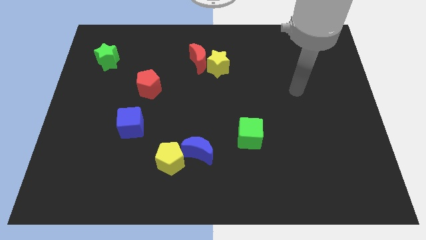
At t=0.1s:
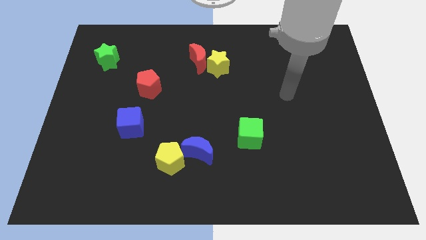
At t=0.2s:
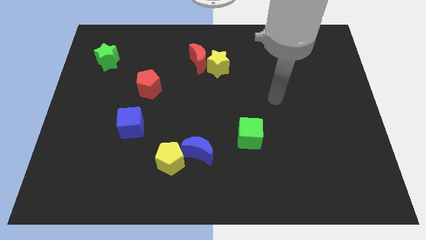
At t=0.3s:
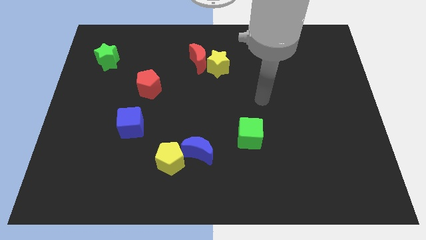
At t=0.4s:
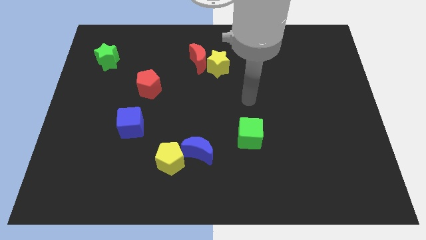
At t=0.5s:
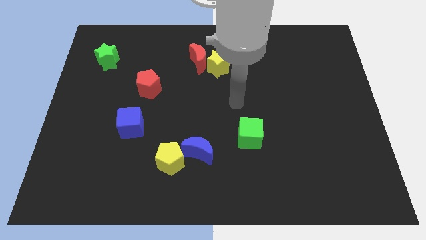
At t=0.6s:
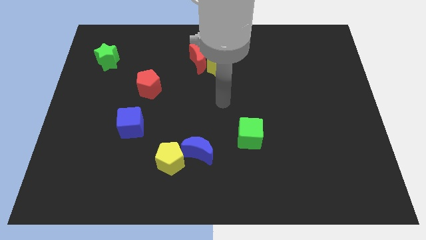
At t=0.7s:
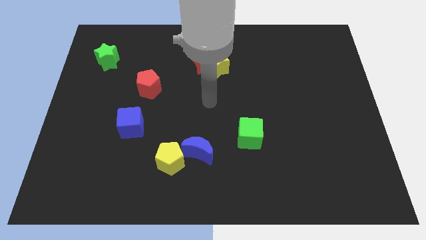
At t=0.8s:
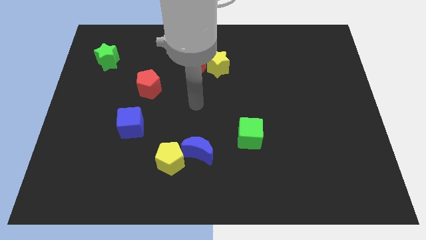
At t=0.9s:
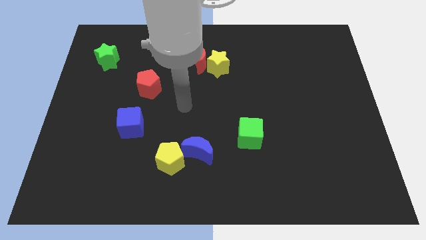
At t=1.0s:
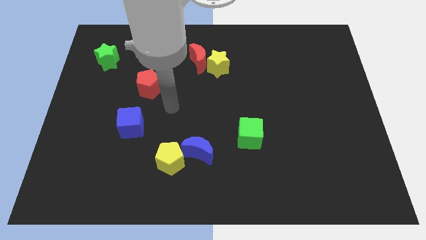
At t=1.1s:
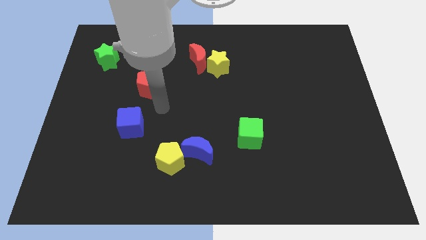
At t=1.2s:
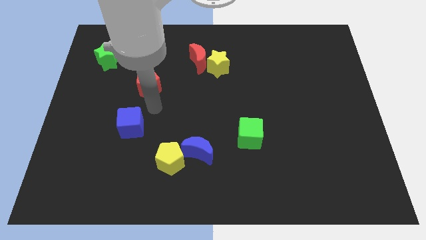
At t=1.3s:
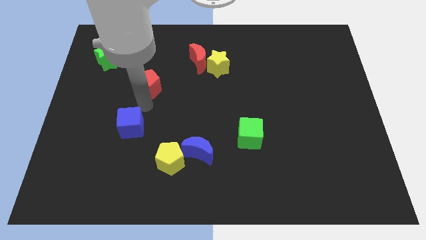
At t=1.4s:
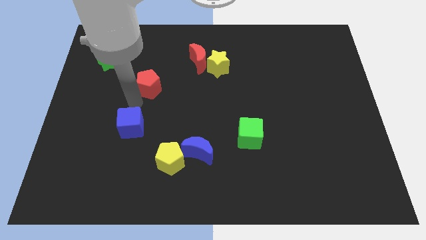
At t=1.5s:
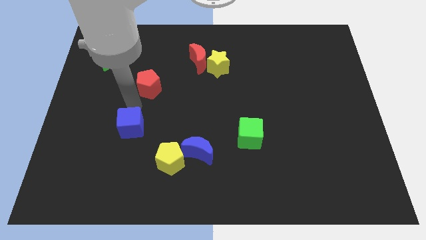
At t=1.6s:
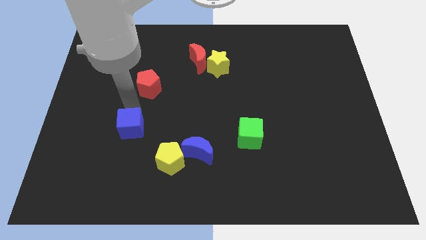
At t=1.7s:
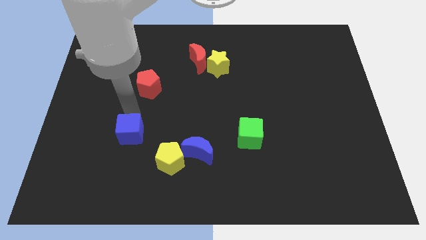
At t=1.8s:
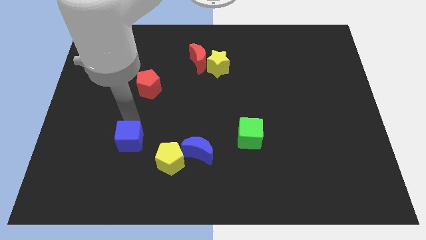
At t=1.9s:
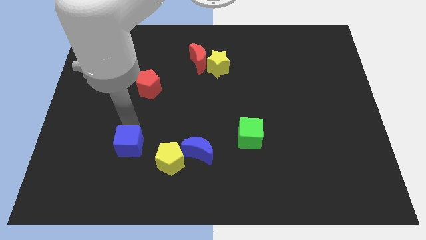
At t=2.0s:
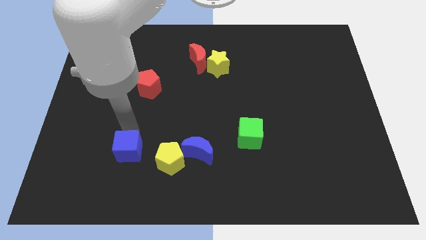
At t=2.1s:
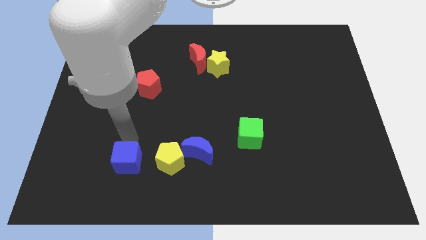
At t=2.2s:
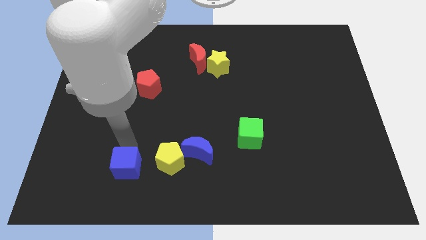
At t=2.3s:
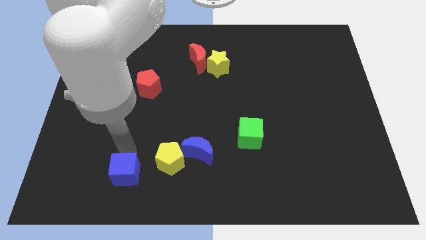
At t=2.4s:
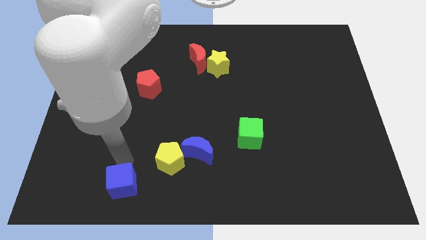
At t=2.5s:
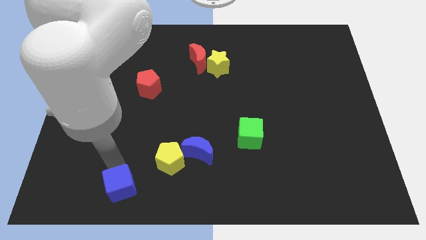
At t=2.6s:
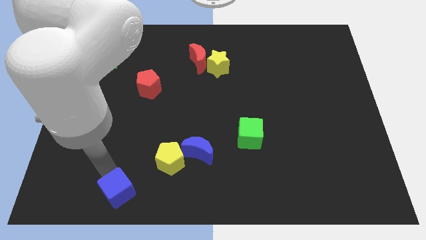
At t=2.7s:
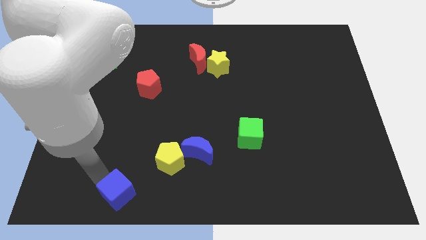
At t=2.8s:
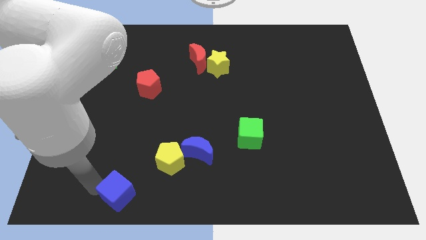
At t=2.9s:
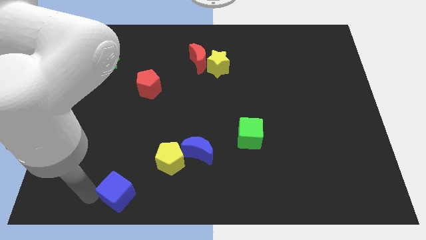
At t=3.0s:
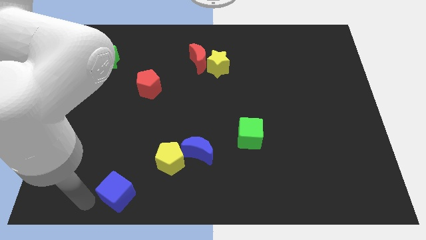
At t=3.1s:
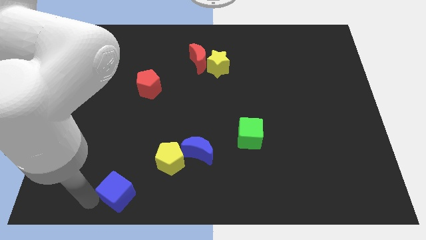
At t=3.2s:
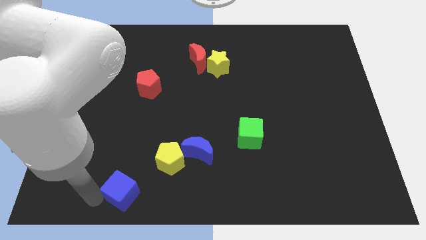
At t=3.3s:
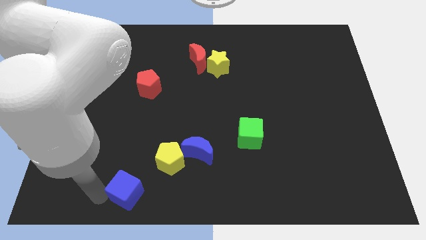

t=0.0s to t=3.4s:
slide the blue cube downwards and then to the right a little

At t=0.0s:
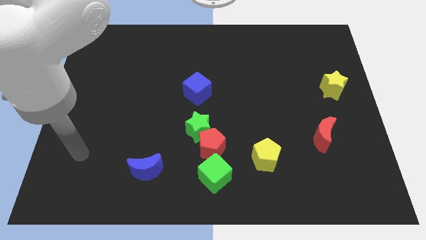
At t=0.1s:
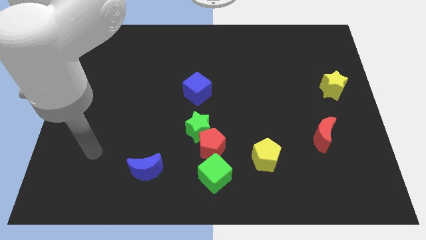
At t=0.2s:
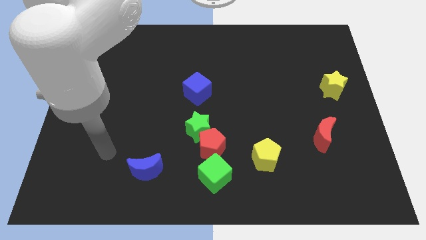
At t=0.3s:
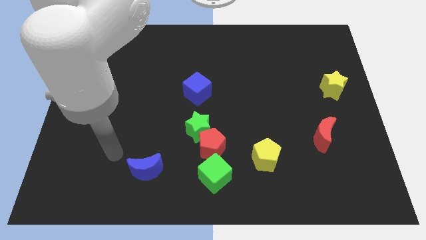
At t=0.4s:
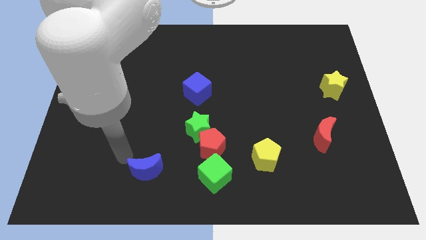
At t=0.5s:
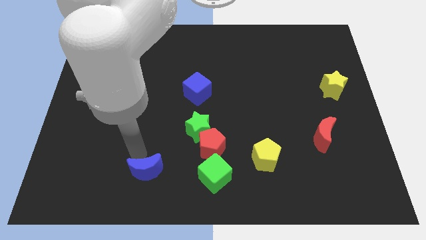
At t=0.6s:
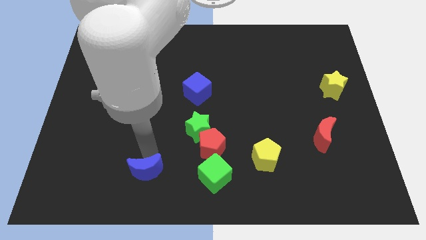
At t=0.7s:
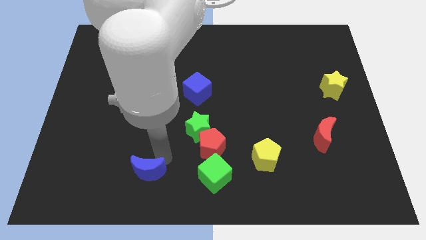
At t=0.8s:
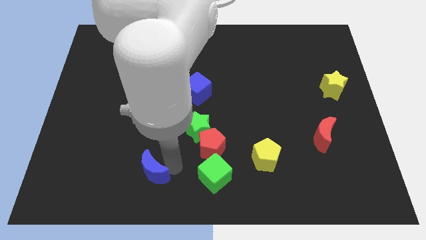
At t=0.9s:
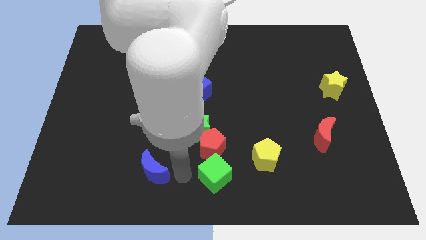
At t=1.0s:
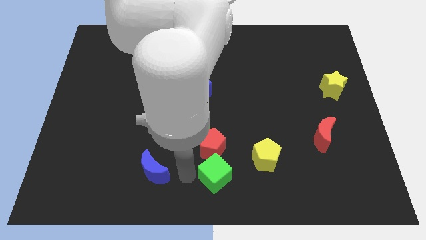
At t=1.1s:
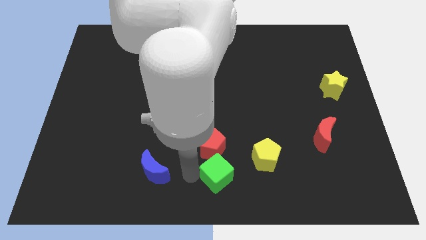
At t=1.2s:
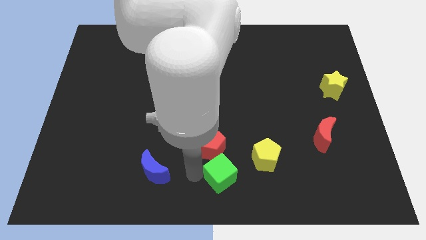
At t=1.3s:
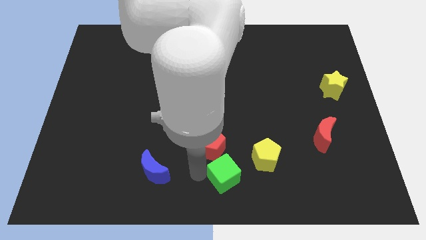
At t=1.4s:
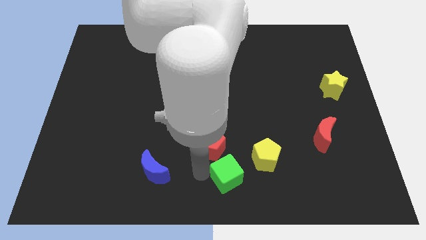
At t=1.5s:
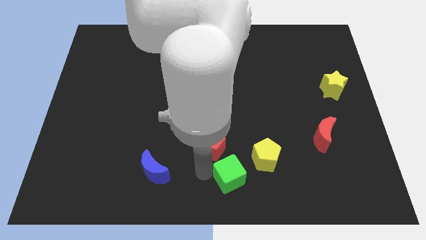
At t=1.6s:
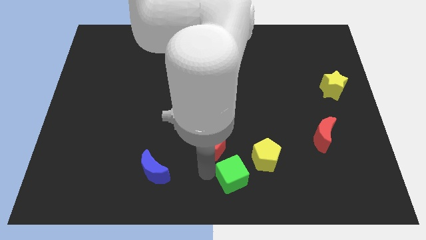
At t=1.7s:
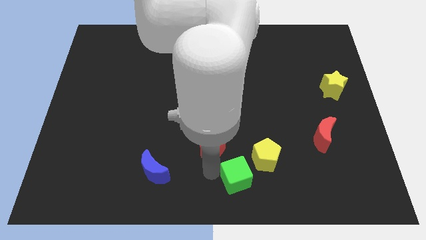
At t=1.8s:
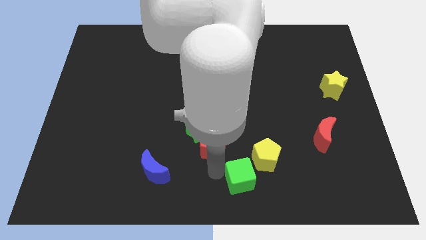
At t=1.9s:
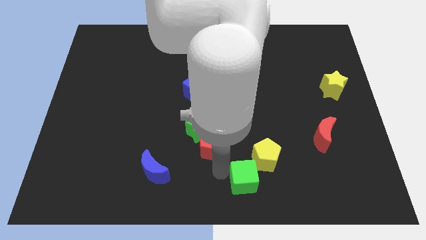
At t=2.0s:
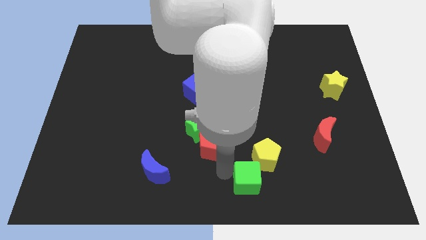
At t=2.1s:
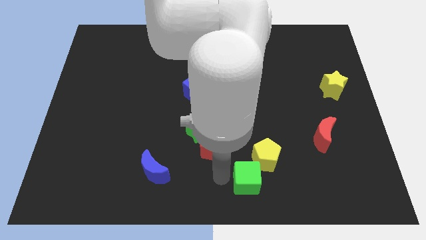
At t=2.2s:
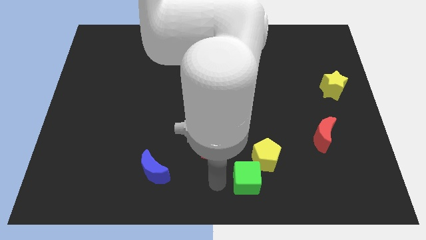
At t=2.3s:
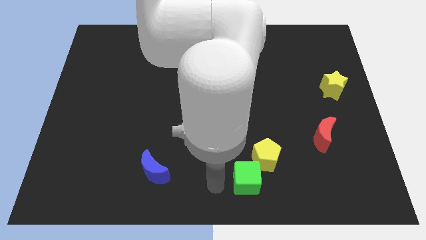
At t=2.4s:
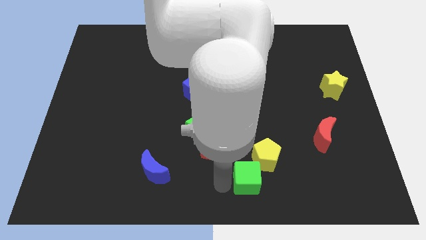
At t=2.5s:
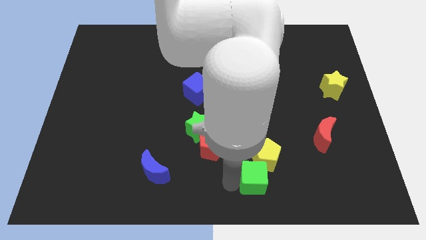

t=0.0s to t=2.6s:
slide the green cube a bit to the right

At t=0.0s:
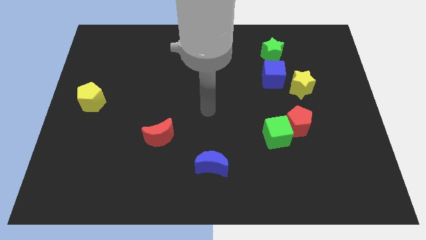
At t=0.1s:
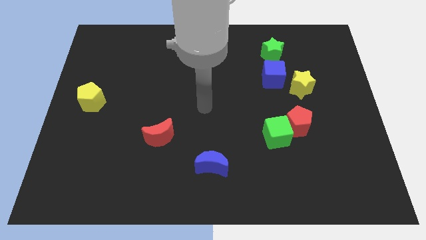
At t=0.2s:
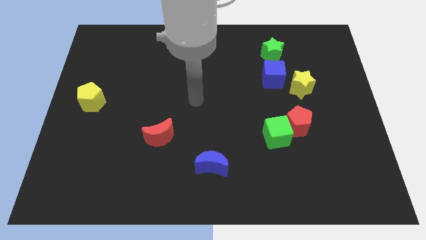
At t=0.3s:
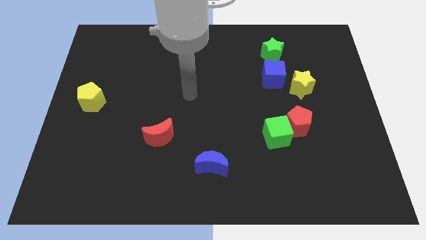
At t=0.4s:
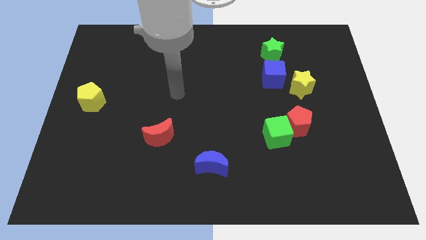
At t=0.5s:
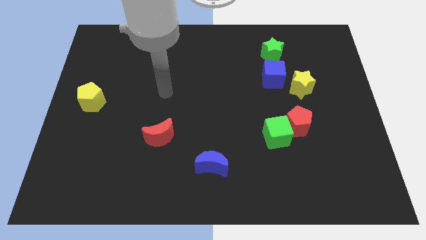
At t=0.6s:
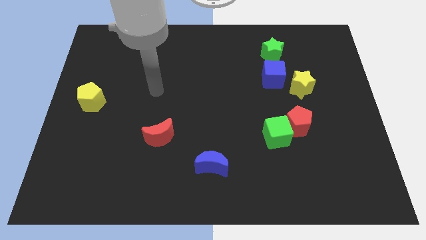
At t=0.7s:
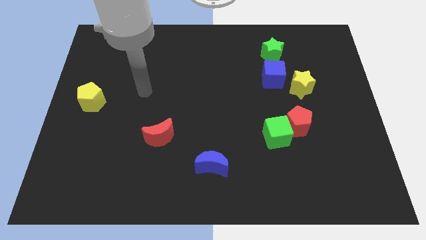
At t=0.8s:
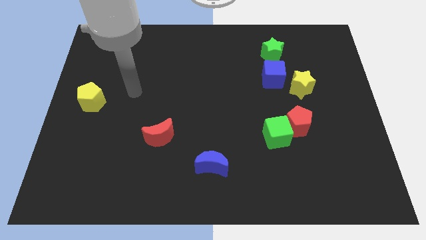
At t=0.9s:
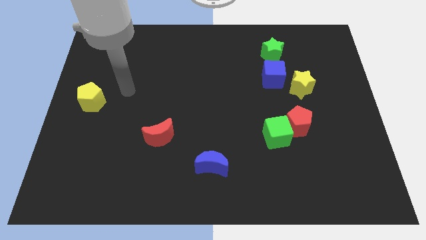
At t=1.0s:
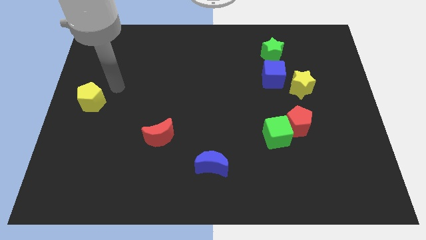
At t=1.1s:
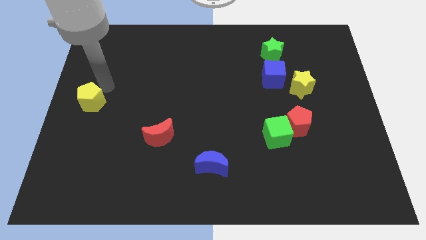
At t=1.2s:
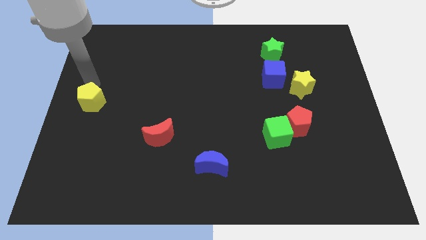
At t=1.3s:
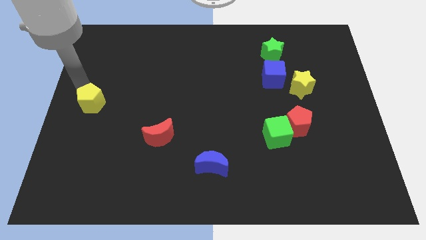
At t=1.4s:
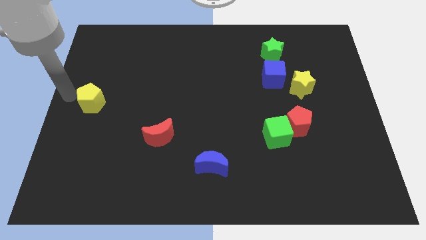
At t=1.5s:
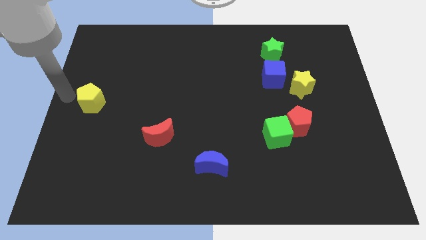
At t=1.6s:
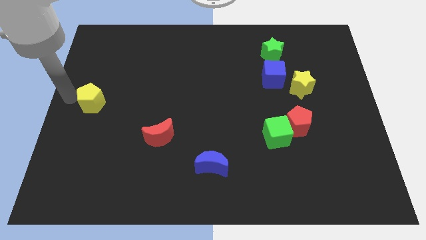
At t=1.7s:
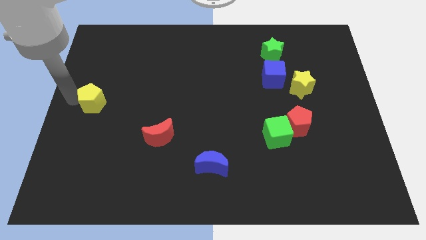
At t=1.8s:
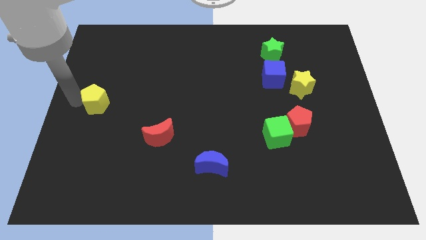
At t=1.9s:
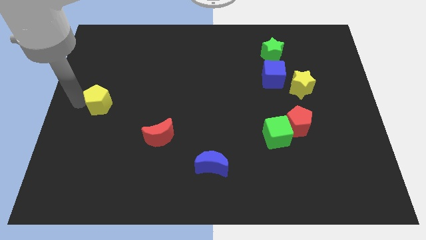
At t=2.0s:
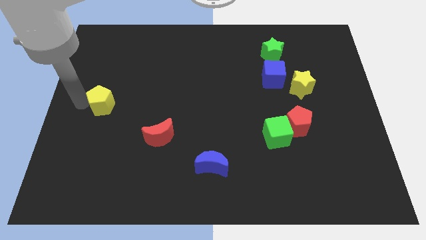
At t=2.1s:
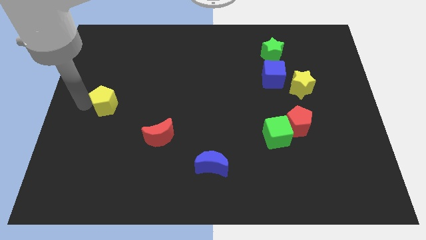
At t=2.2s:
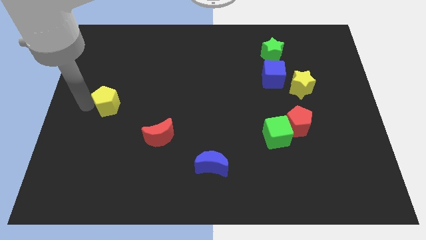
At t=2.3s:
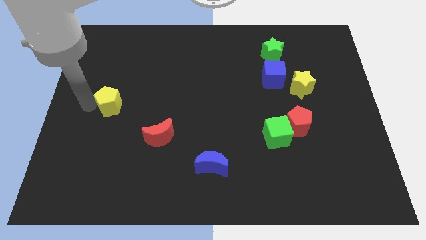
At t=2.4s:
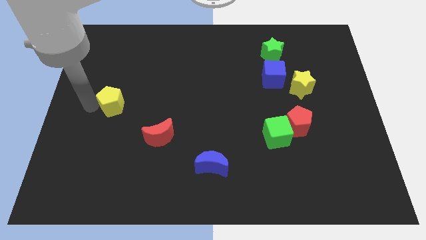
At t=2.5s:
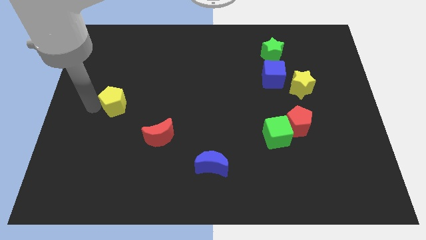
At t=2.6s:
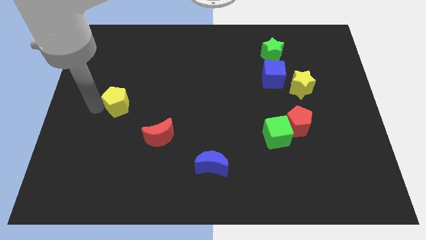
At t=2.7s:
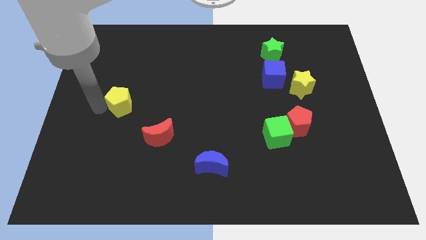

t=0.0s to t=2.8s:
move the yellow pentagon to the right a little
